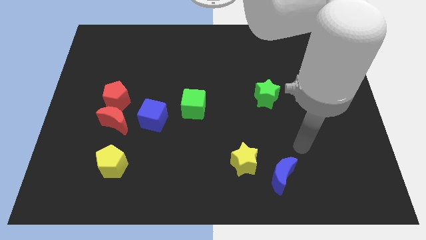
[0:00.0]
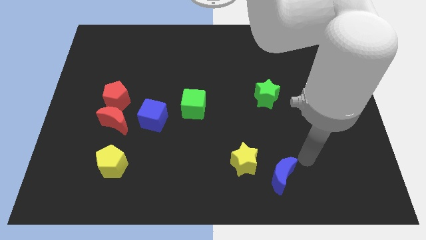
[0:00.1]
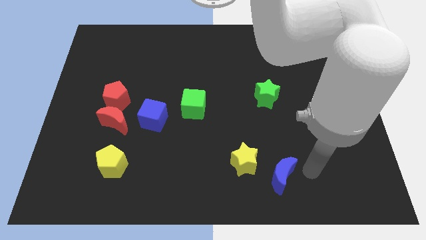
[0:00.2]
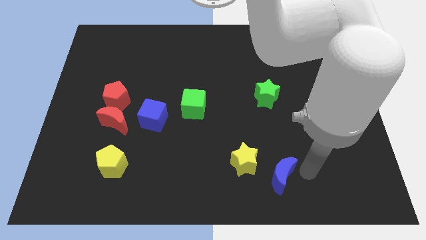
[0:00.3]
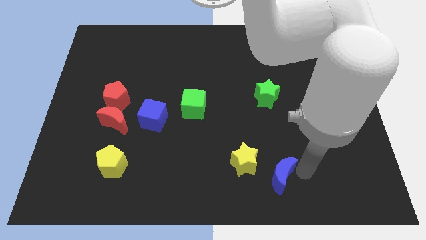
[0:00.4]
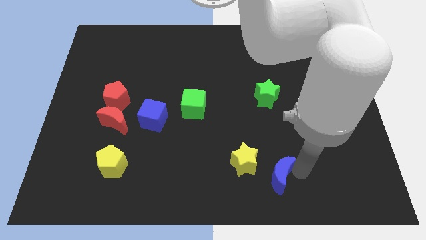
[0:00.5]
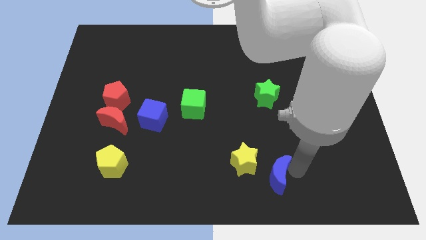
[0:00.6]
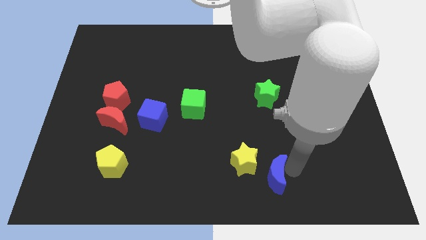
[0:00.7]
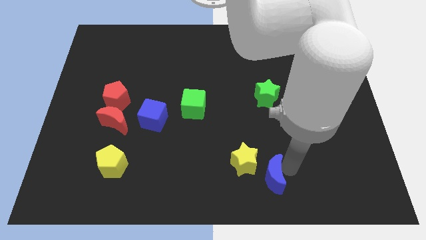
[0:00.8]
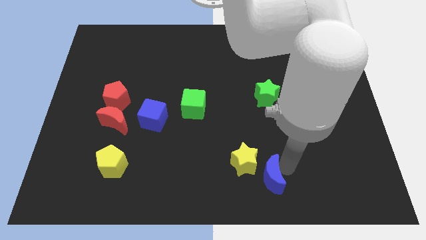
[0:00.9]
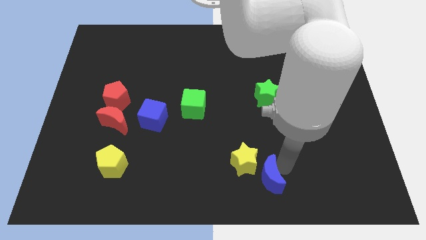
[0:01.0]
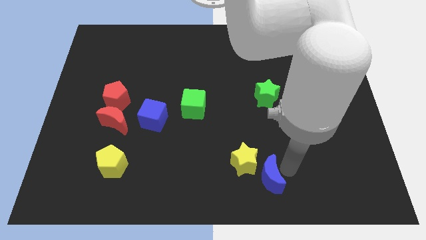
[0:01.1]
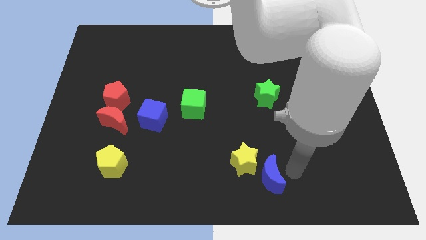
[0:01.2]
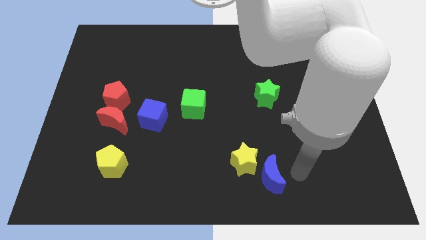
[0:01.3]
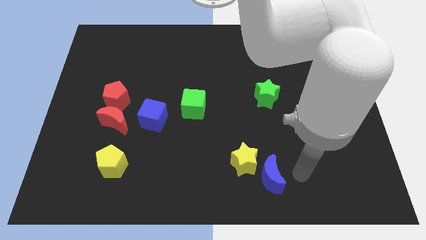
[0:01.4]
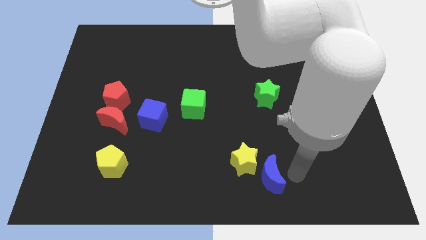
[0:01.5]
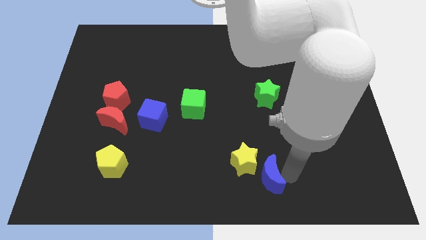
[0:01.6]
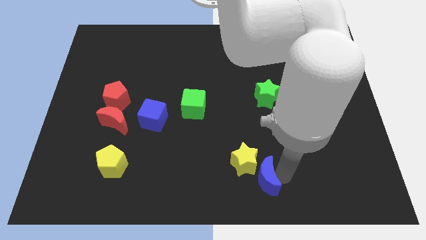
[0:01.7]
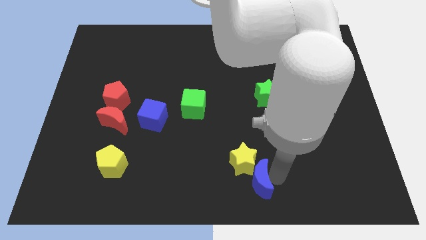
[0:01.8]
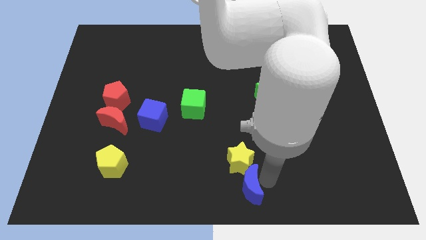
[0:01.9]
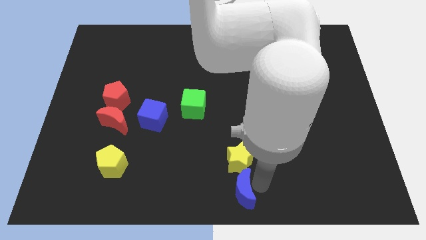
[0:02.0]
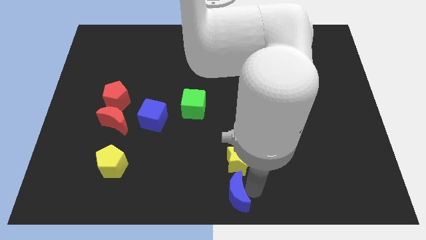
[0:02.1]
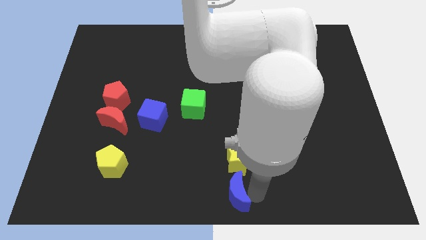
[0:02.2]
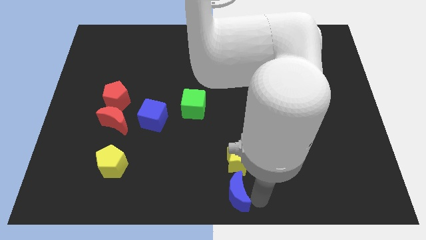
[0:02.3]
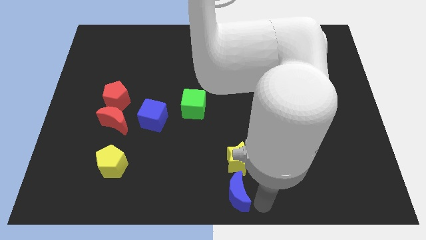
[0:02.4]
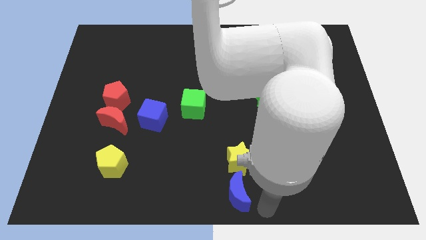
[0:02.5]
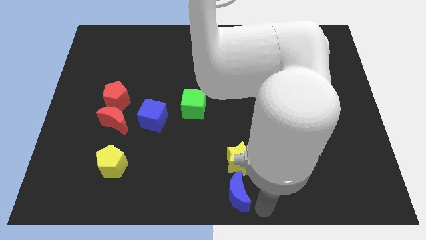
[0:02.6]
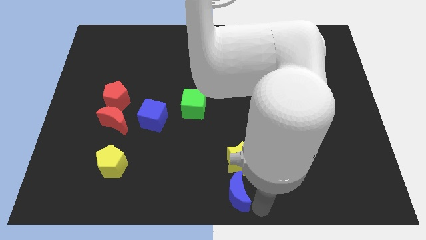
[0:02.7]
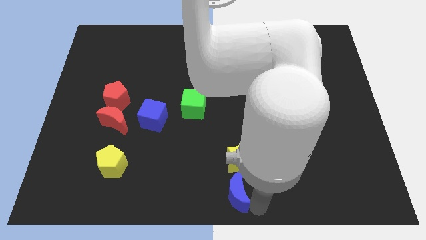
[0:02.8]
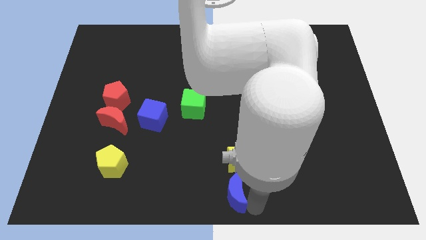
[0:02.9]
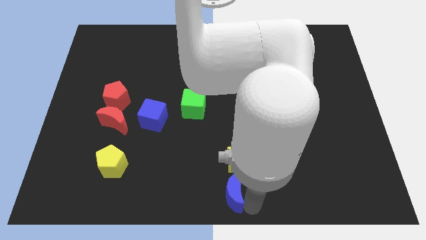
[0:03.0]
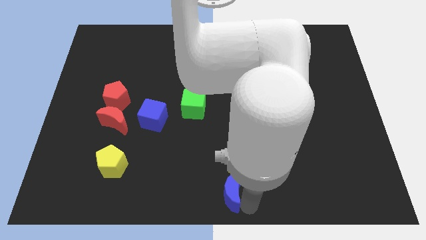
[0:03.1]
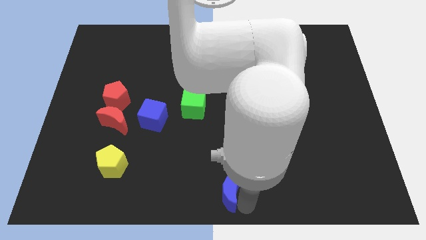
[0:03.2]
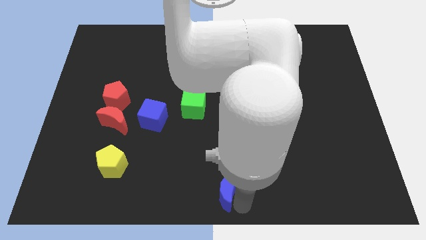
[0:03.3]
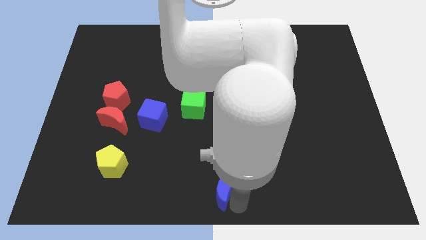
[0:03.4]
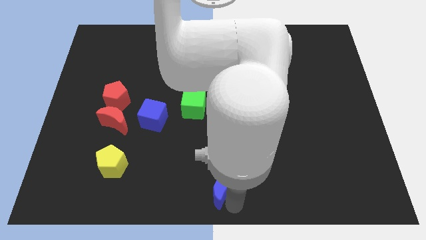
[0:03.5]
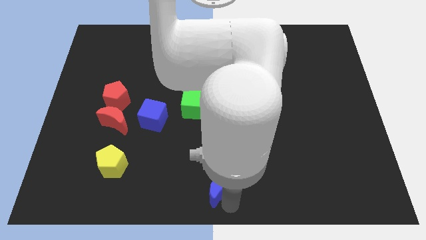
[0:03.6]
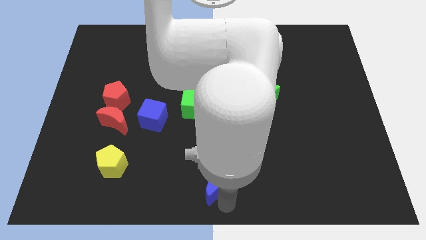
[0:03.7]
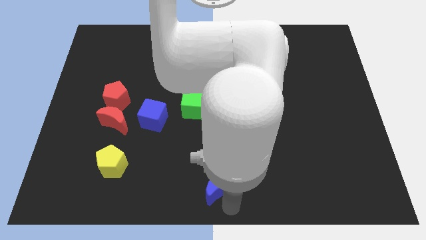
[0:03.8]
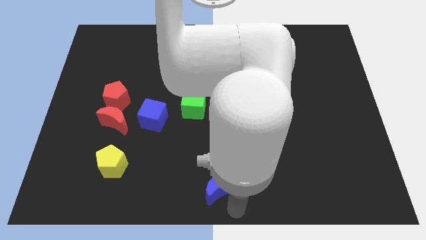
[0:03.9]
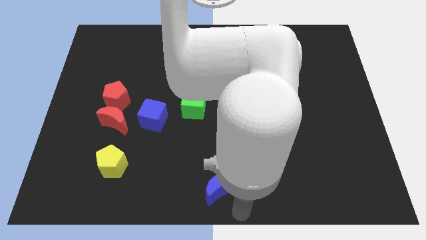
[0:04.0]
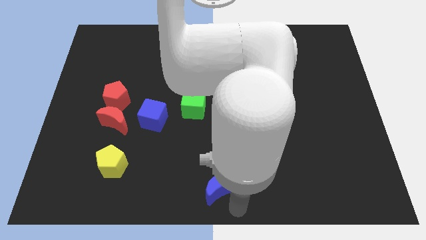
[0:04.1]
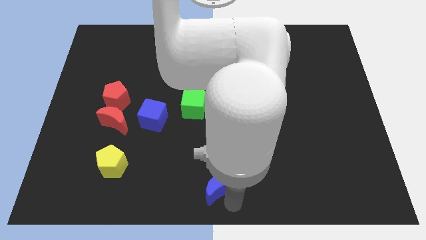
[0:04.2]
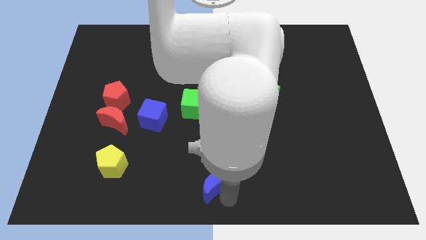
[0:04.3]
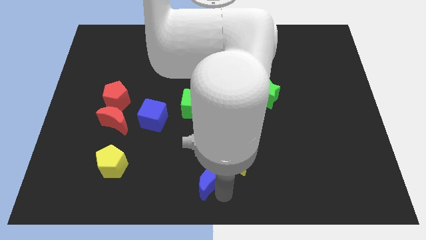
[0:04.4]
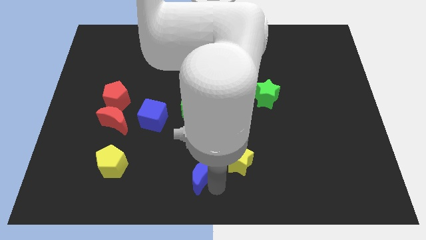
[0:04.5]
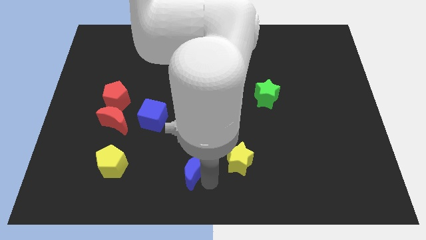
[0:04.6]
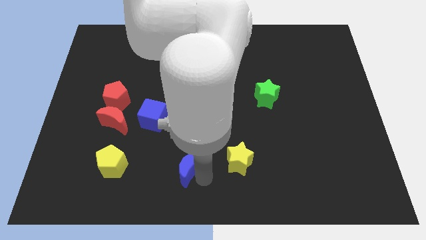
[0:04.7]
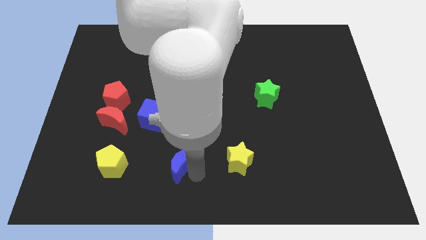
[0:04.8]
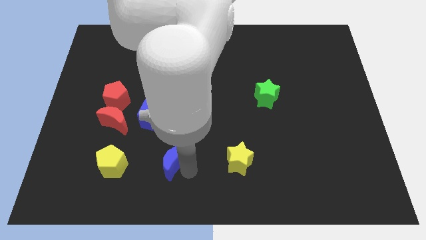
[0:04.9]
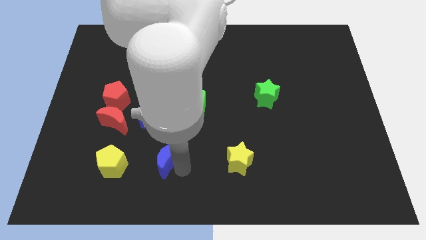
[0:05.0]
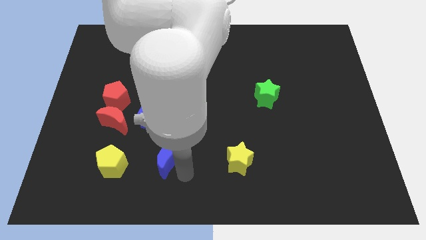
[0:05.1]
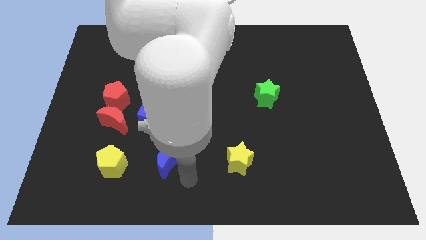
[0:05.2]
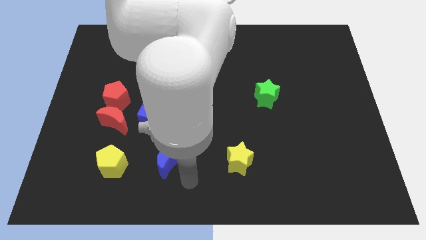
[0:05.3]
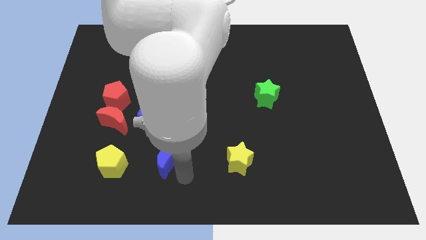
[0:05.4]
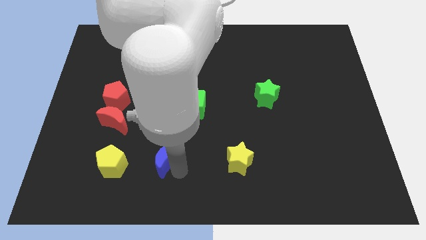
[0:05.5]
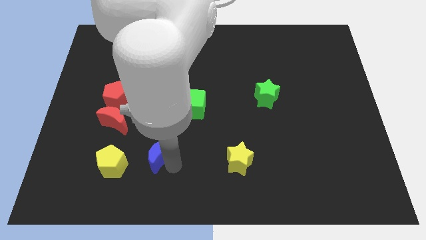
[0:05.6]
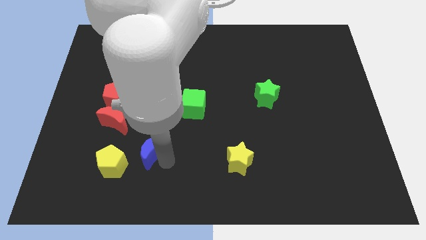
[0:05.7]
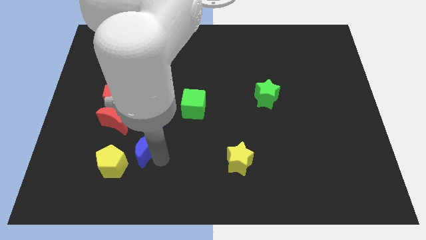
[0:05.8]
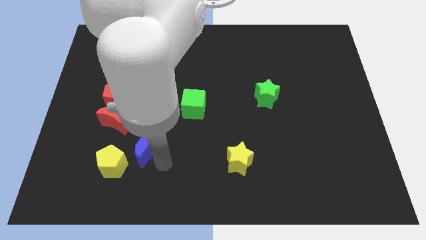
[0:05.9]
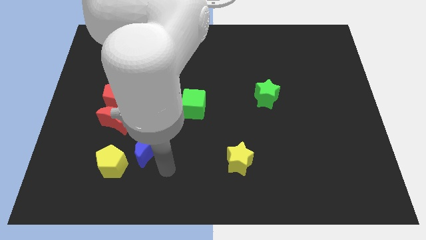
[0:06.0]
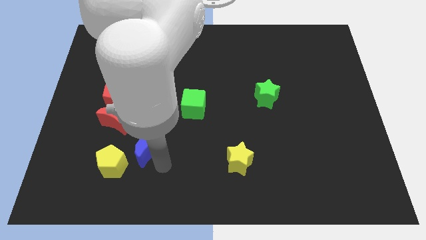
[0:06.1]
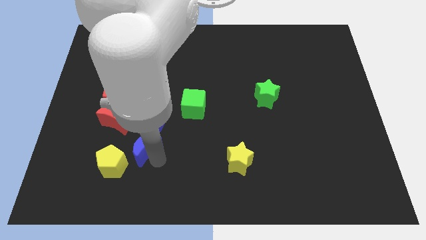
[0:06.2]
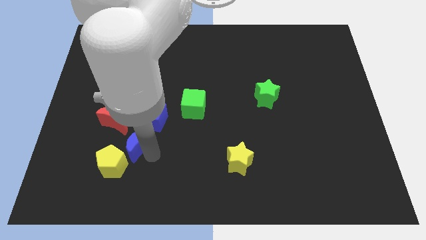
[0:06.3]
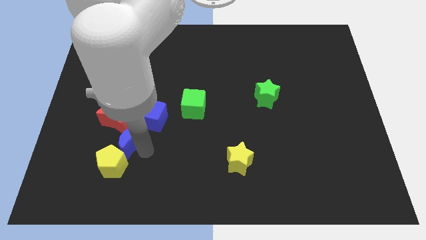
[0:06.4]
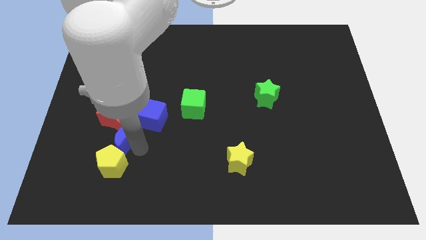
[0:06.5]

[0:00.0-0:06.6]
put the blue moon next to the red moon
